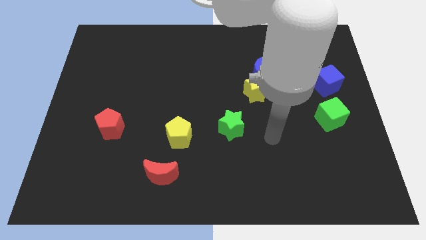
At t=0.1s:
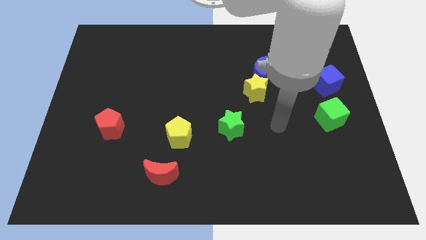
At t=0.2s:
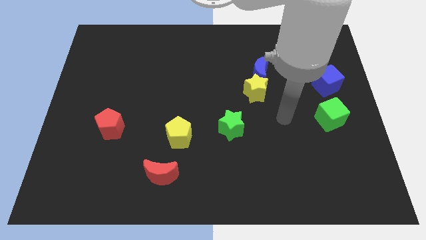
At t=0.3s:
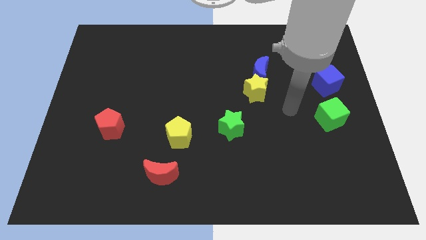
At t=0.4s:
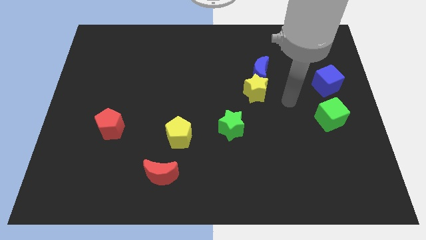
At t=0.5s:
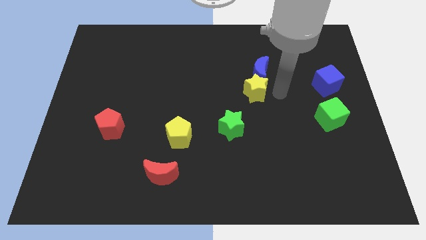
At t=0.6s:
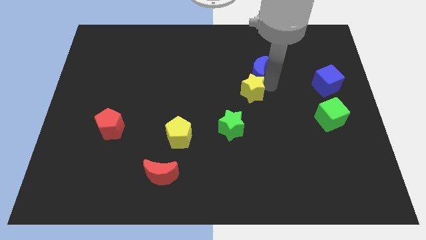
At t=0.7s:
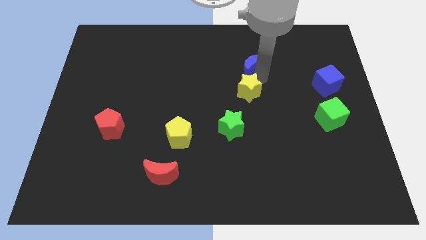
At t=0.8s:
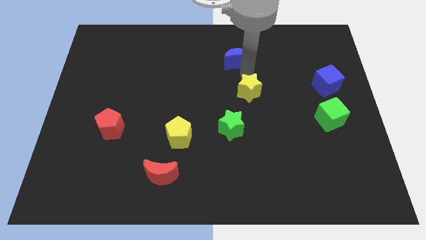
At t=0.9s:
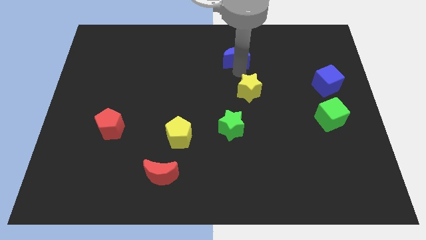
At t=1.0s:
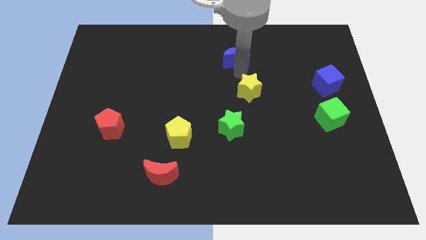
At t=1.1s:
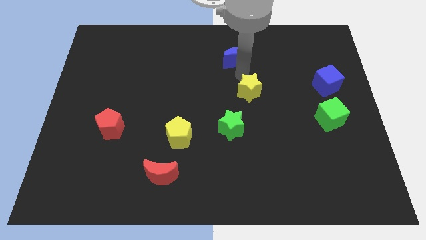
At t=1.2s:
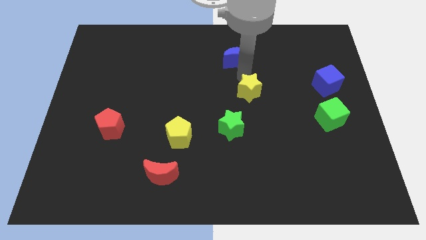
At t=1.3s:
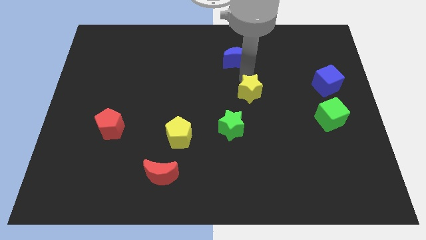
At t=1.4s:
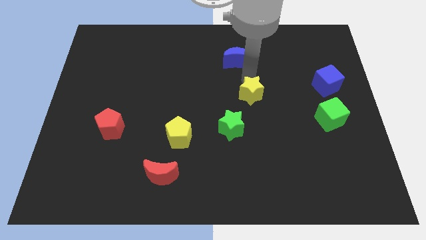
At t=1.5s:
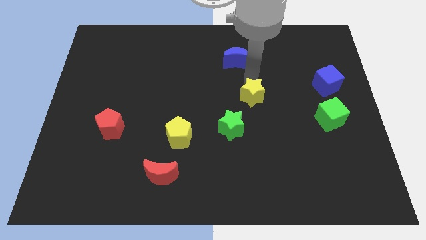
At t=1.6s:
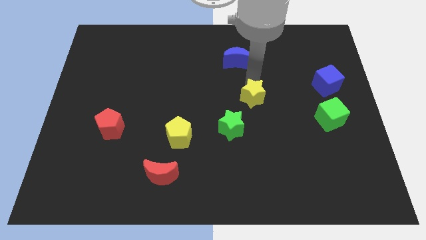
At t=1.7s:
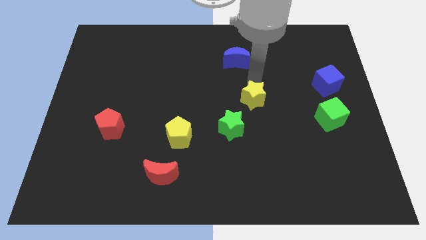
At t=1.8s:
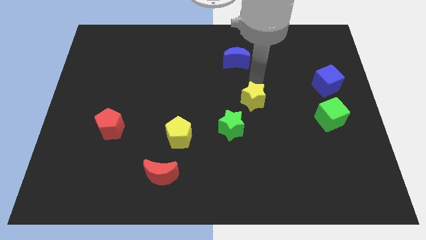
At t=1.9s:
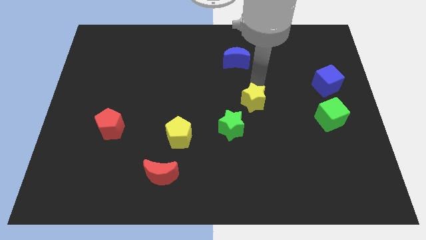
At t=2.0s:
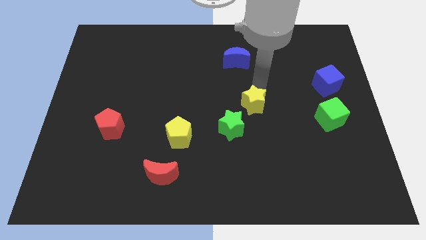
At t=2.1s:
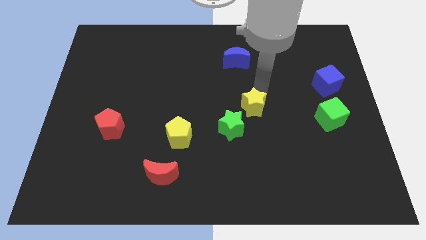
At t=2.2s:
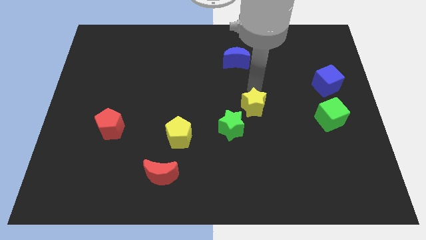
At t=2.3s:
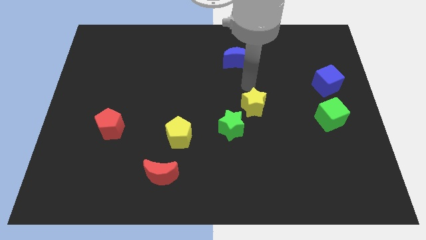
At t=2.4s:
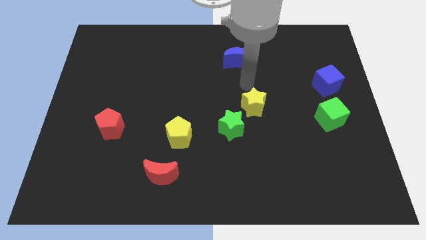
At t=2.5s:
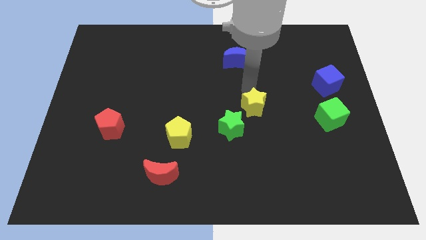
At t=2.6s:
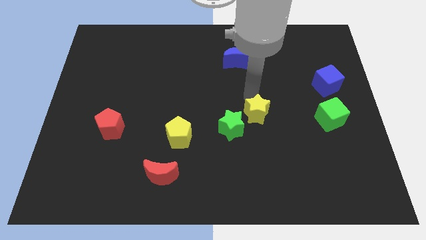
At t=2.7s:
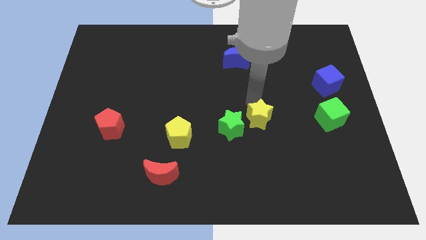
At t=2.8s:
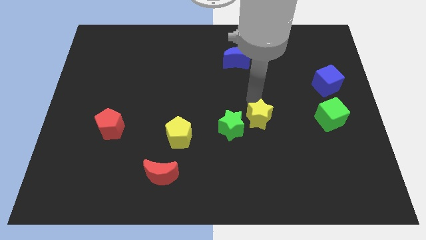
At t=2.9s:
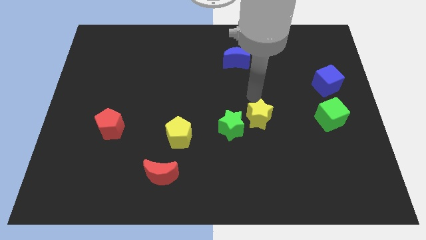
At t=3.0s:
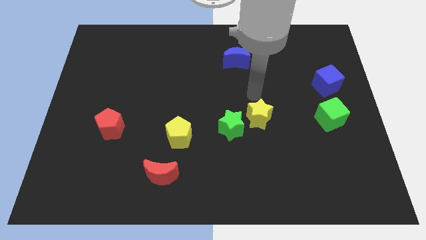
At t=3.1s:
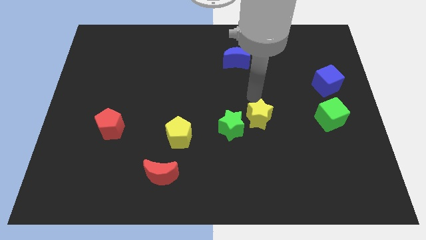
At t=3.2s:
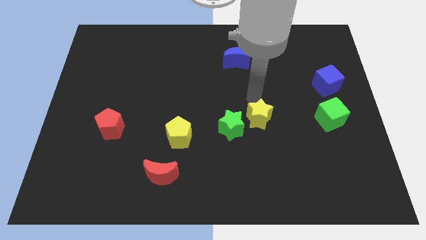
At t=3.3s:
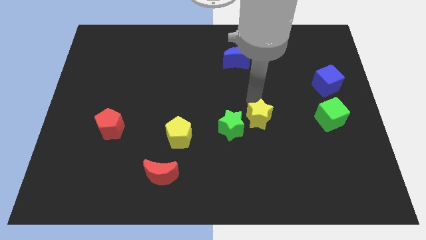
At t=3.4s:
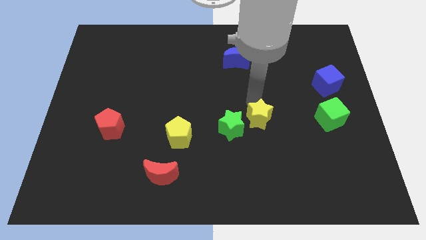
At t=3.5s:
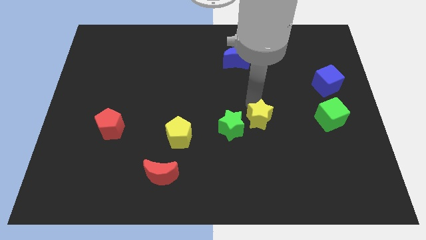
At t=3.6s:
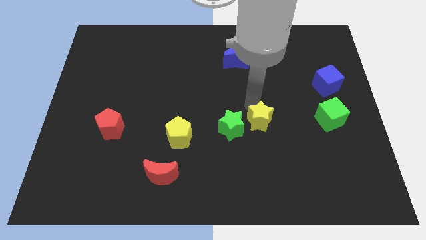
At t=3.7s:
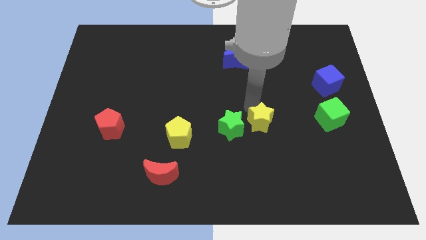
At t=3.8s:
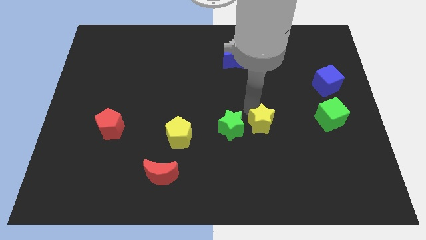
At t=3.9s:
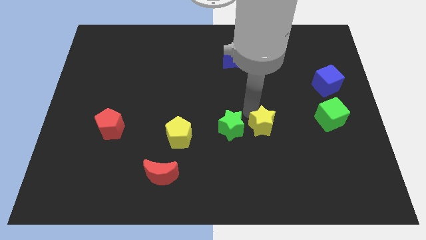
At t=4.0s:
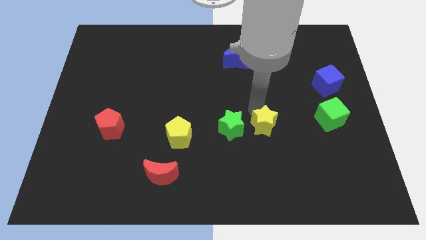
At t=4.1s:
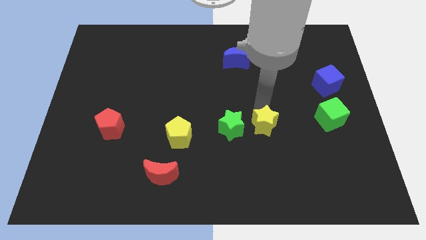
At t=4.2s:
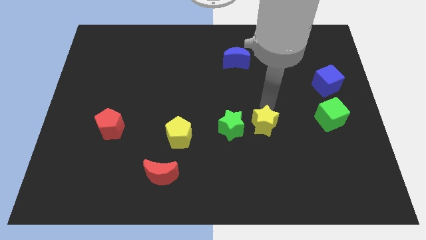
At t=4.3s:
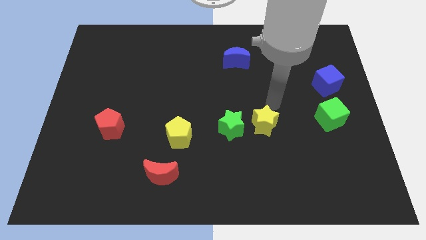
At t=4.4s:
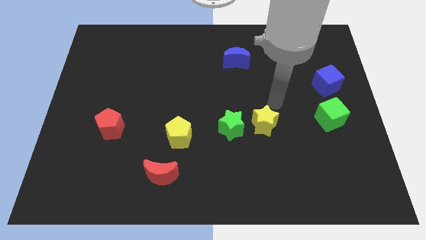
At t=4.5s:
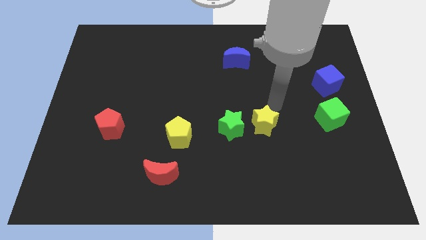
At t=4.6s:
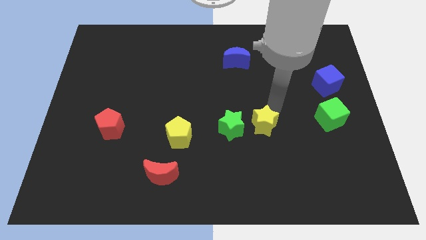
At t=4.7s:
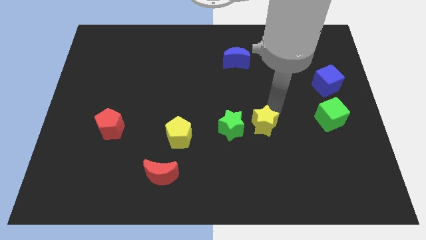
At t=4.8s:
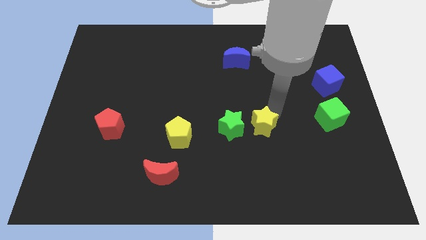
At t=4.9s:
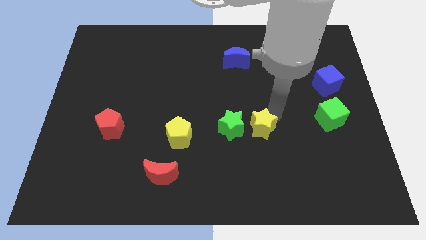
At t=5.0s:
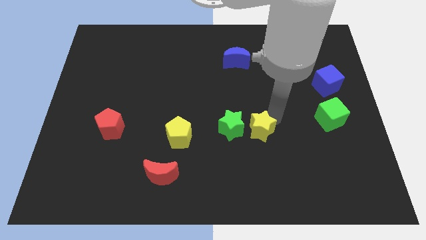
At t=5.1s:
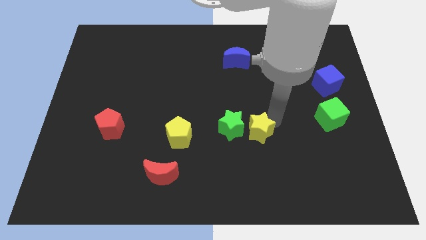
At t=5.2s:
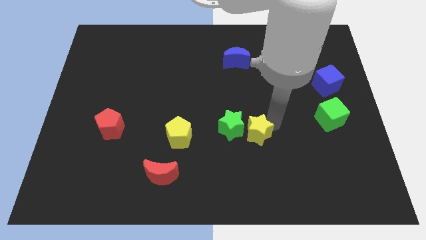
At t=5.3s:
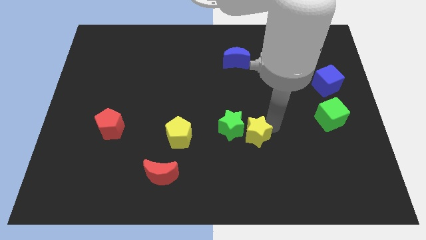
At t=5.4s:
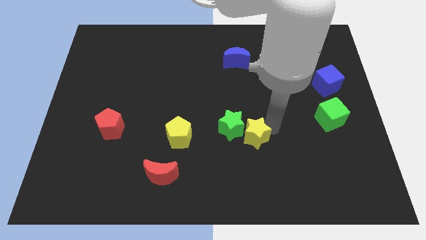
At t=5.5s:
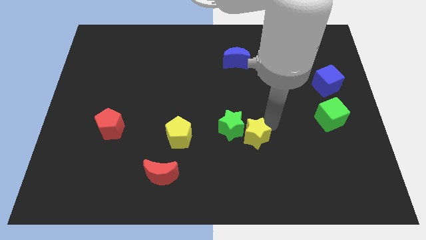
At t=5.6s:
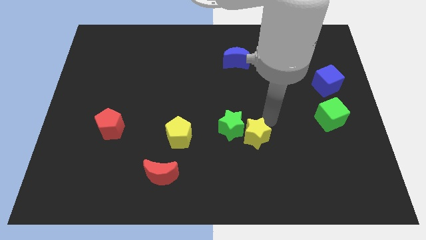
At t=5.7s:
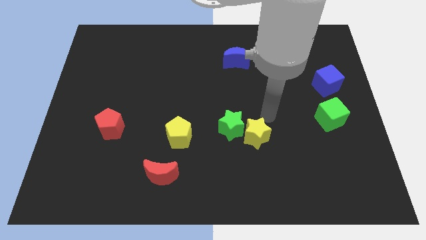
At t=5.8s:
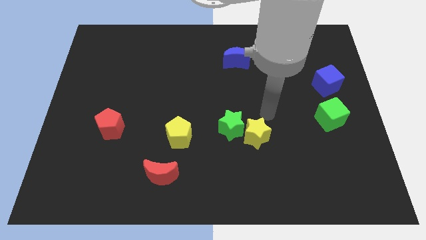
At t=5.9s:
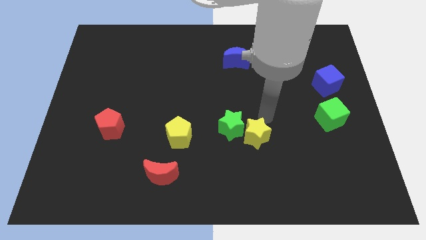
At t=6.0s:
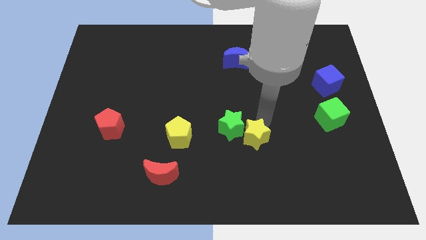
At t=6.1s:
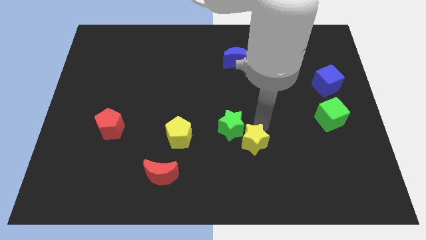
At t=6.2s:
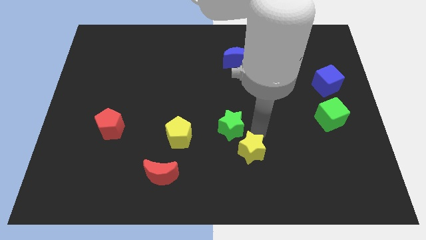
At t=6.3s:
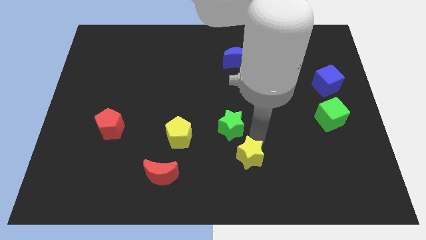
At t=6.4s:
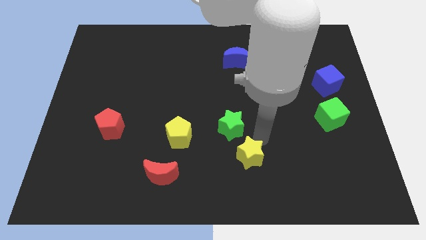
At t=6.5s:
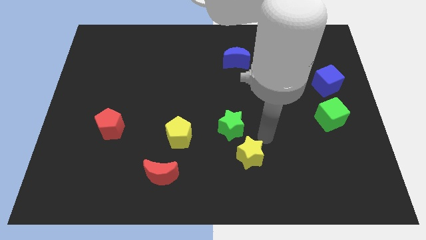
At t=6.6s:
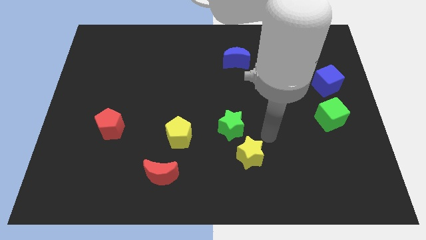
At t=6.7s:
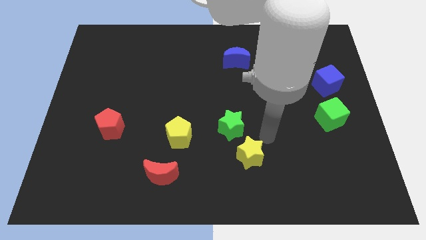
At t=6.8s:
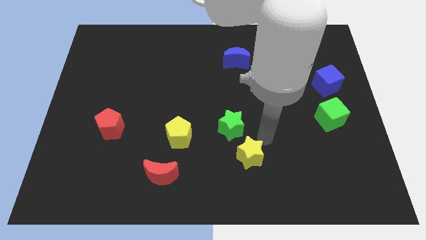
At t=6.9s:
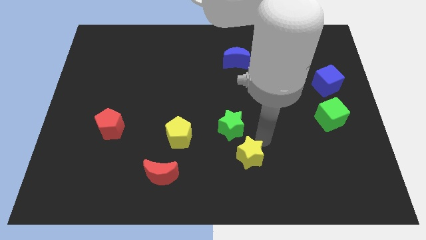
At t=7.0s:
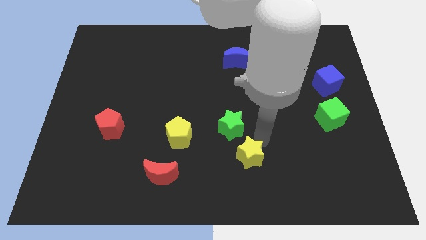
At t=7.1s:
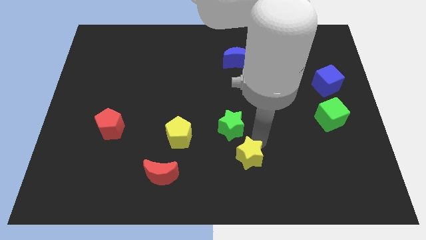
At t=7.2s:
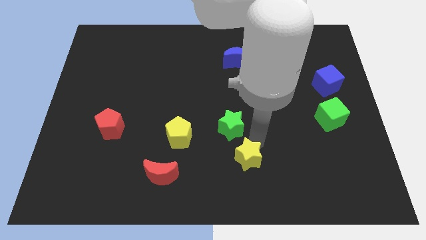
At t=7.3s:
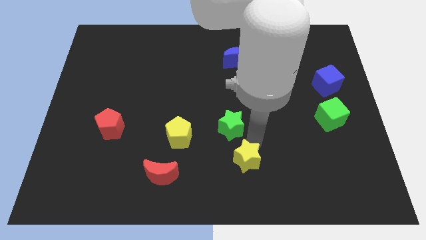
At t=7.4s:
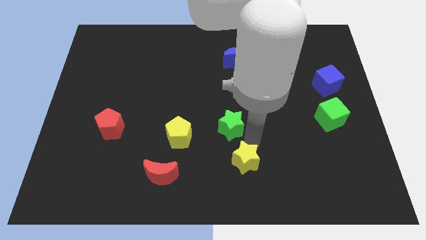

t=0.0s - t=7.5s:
put the yellow star to the bottom side
